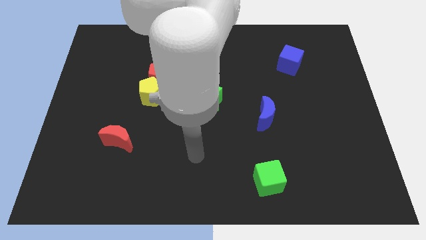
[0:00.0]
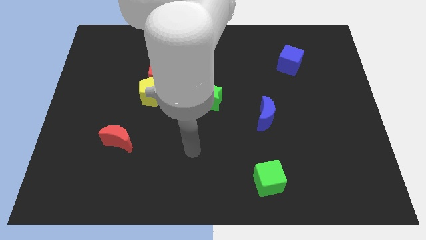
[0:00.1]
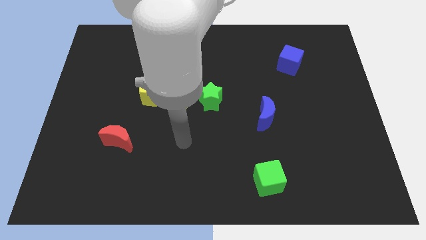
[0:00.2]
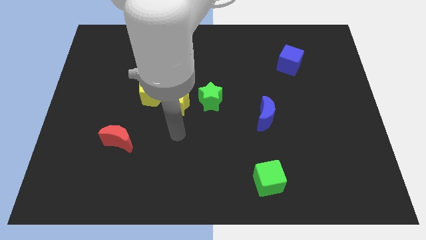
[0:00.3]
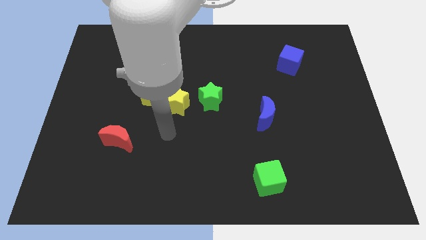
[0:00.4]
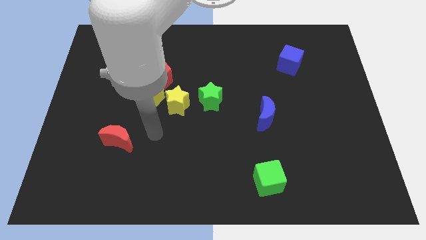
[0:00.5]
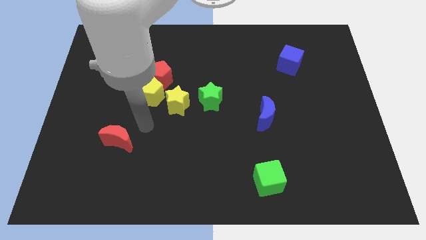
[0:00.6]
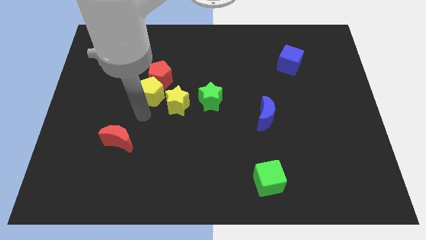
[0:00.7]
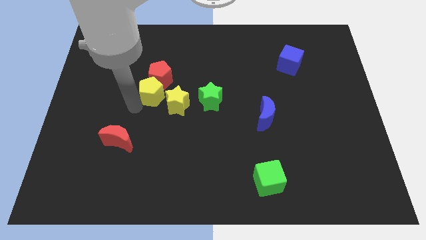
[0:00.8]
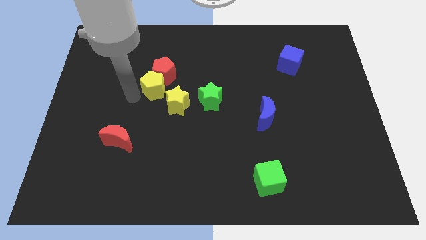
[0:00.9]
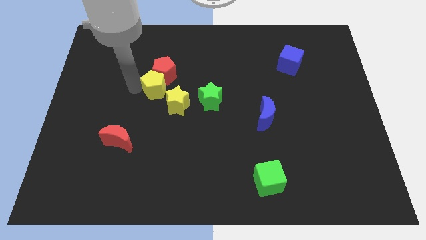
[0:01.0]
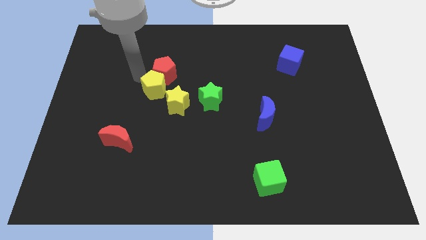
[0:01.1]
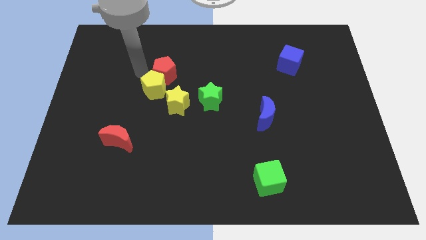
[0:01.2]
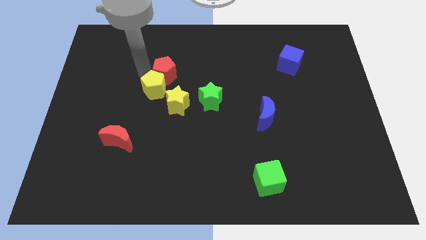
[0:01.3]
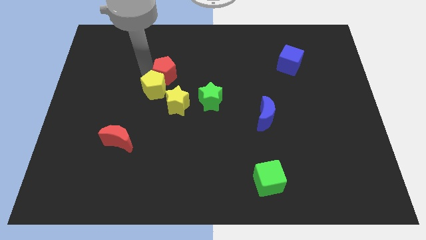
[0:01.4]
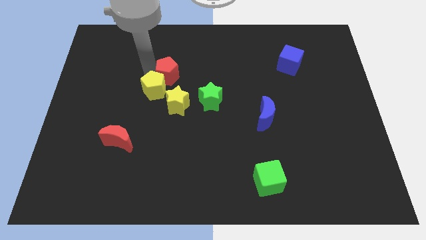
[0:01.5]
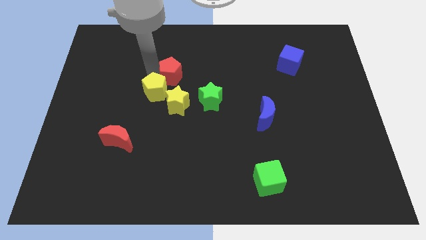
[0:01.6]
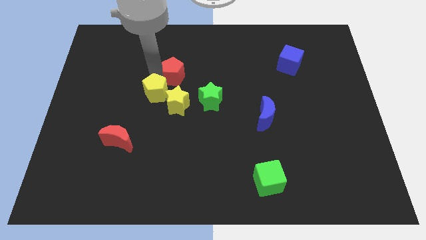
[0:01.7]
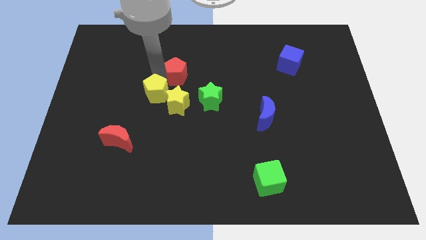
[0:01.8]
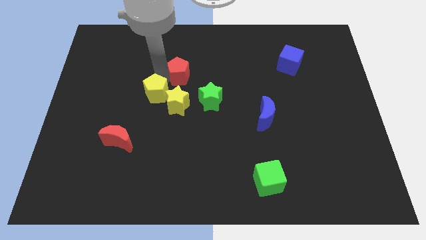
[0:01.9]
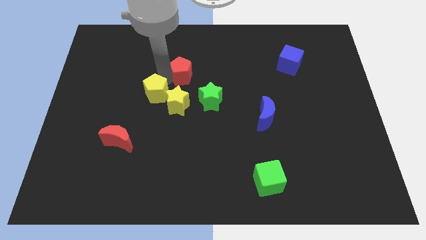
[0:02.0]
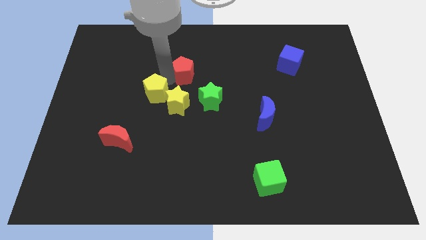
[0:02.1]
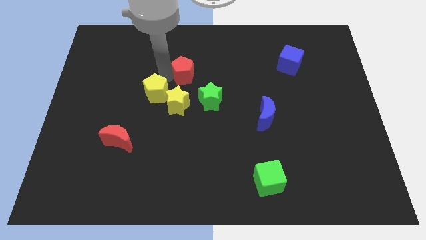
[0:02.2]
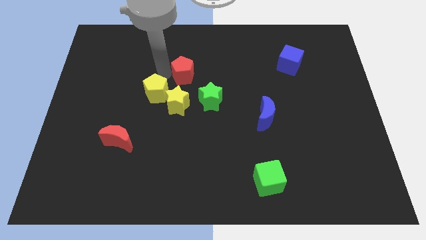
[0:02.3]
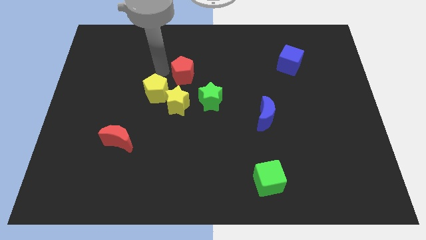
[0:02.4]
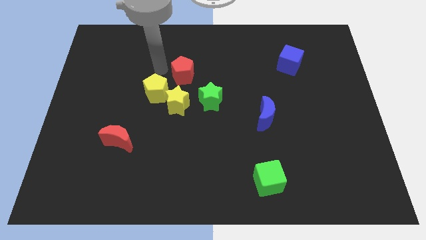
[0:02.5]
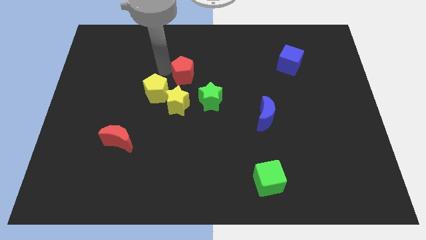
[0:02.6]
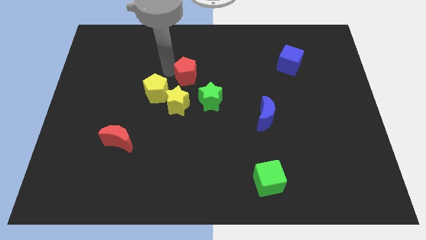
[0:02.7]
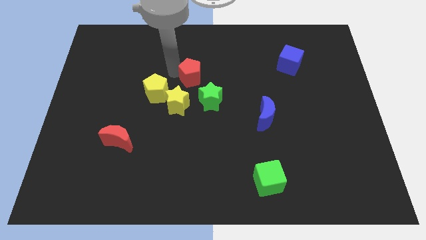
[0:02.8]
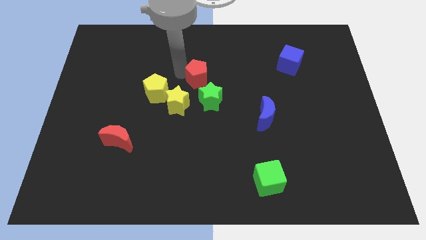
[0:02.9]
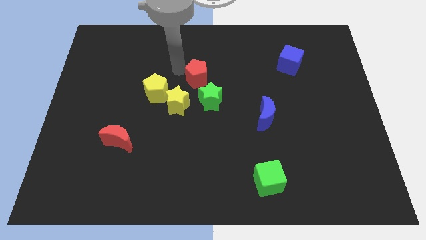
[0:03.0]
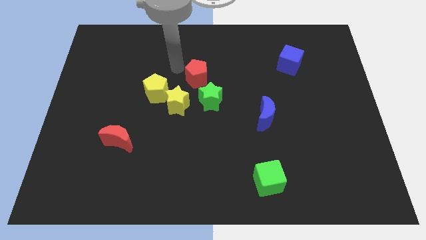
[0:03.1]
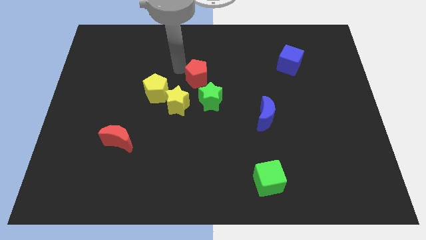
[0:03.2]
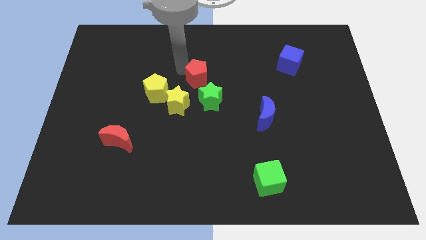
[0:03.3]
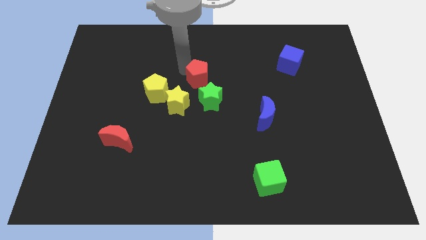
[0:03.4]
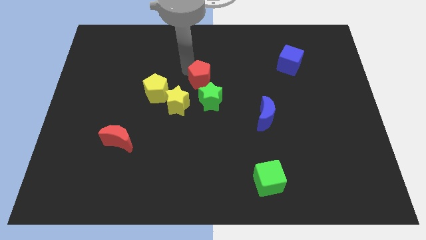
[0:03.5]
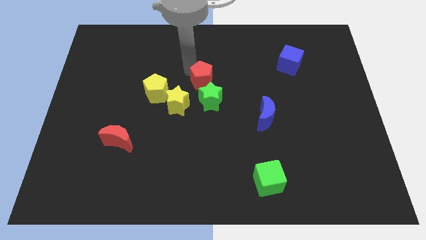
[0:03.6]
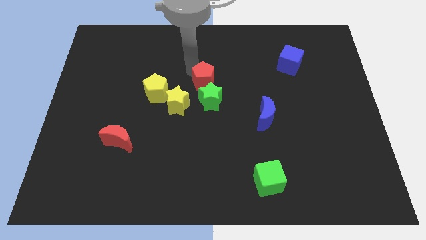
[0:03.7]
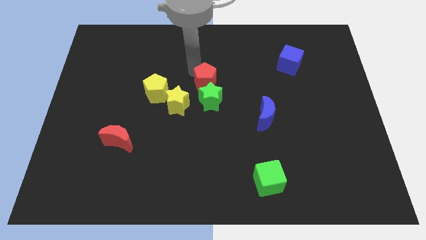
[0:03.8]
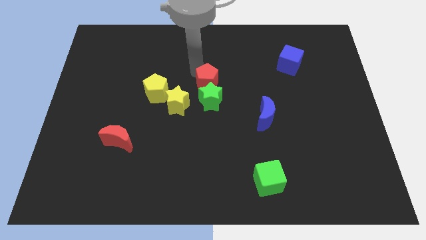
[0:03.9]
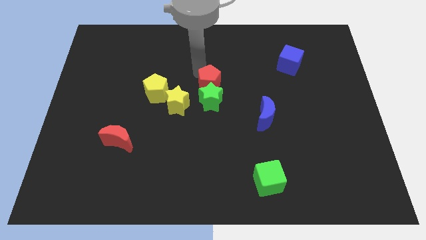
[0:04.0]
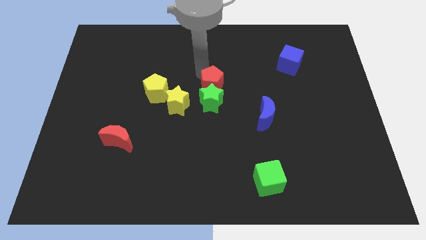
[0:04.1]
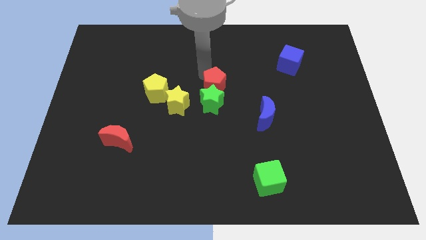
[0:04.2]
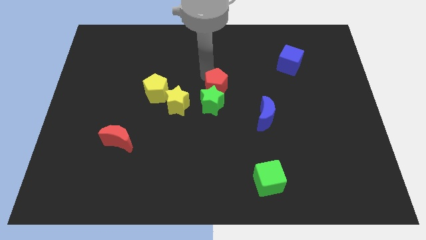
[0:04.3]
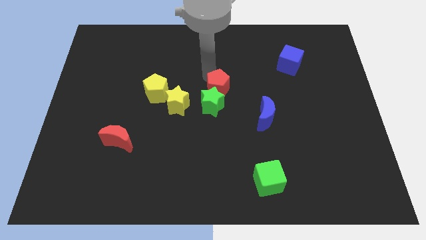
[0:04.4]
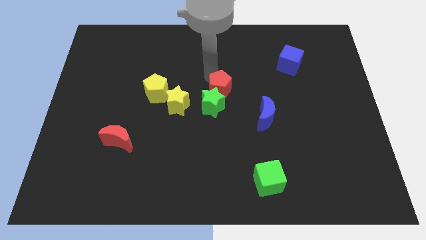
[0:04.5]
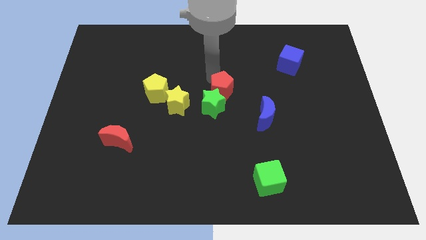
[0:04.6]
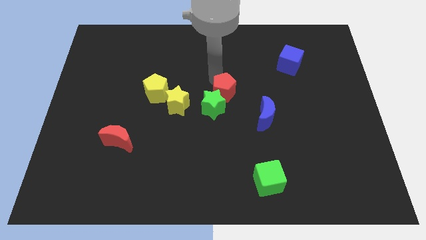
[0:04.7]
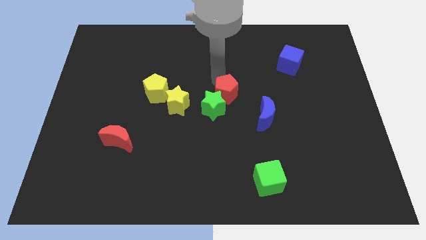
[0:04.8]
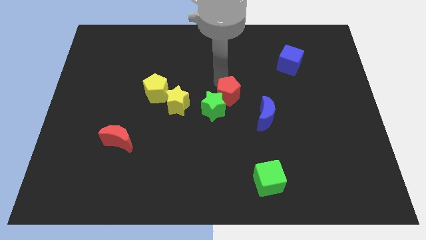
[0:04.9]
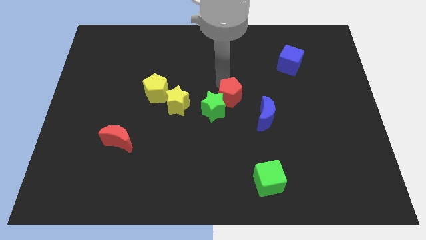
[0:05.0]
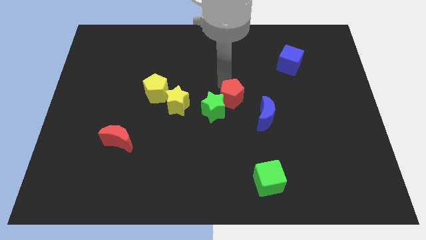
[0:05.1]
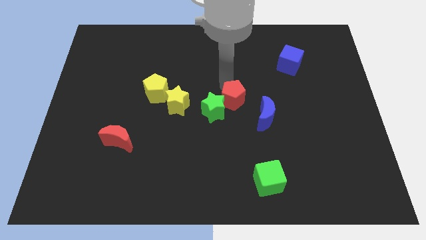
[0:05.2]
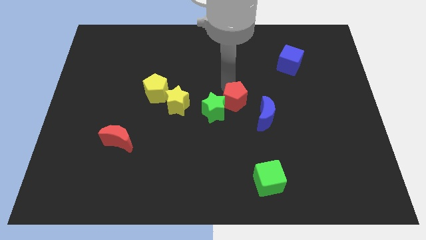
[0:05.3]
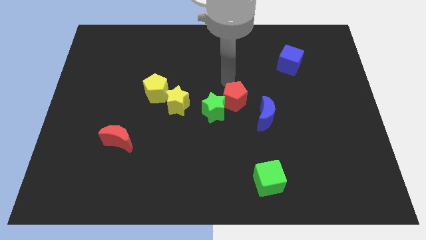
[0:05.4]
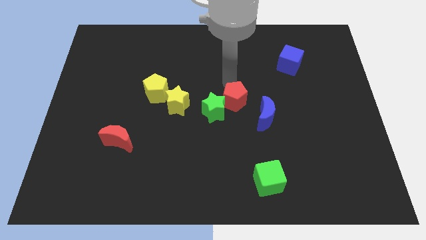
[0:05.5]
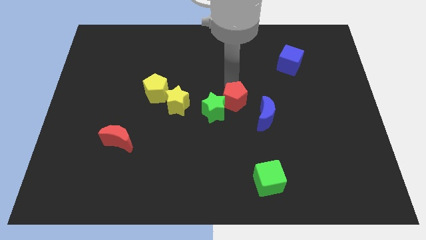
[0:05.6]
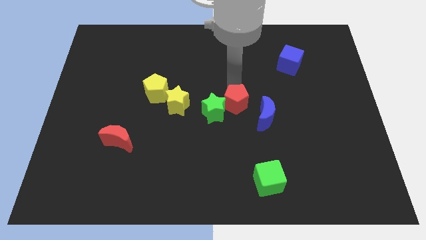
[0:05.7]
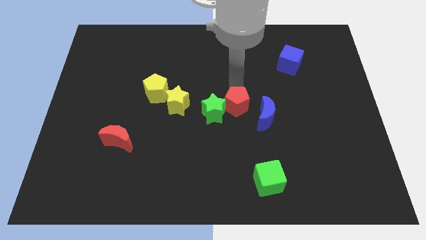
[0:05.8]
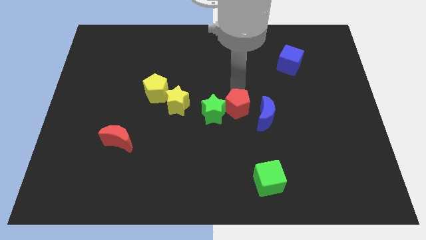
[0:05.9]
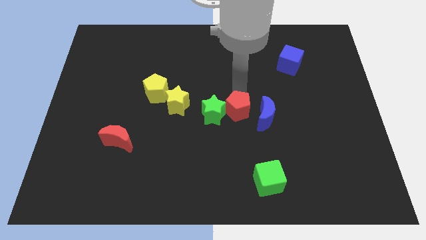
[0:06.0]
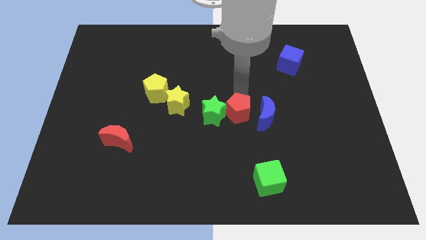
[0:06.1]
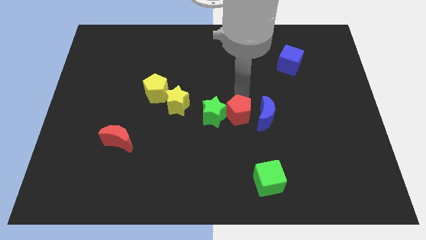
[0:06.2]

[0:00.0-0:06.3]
push the red pentagon downwards and right diagonally

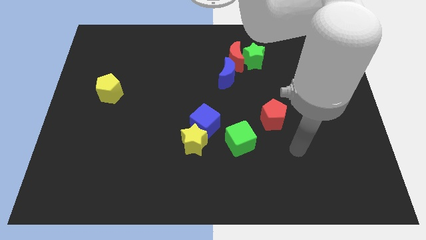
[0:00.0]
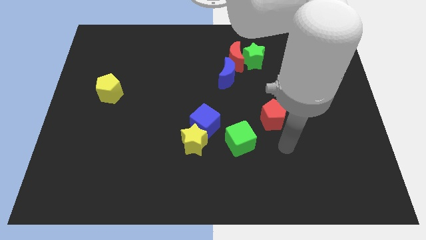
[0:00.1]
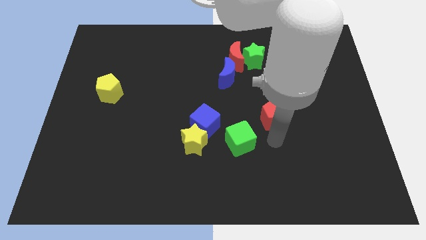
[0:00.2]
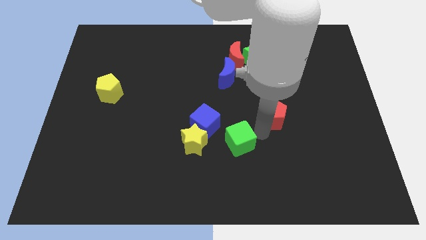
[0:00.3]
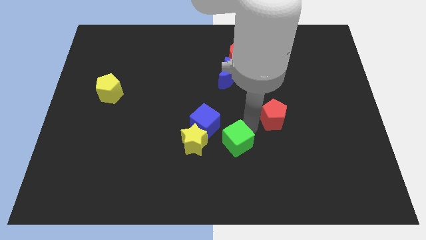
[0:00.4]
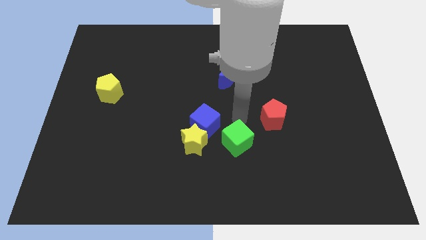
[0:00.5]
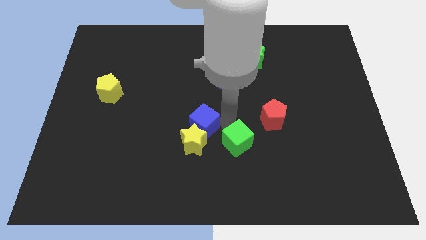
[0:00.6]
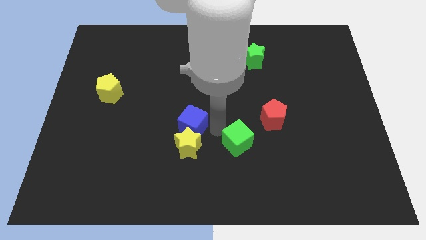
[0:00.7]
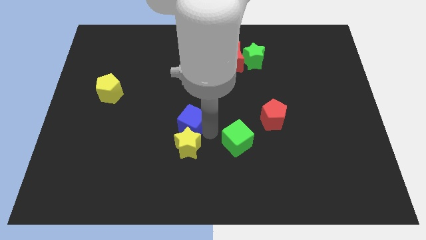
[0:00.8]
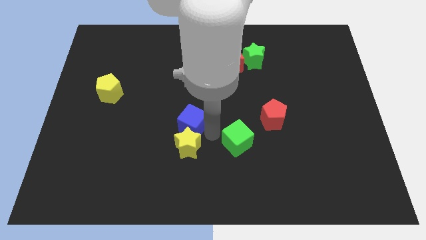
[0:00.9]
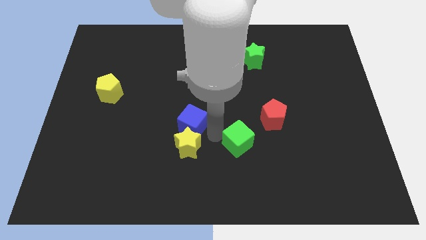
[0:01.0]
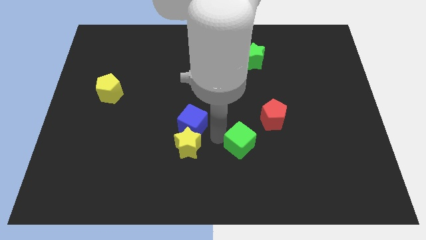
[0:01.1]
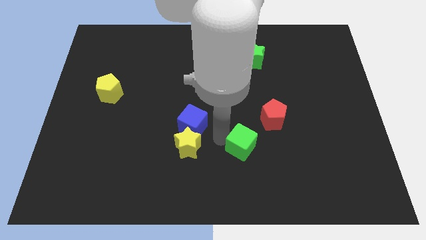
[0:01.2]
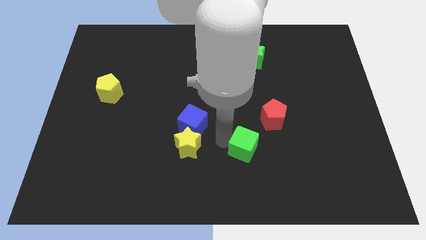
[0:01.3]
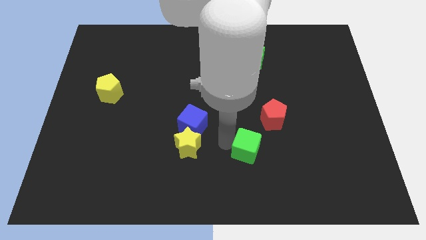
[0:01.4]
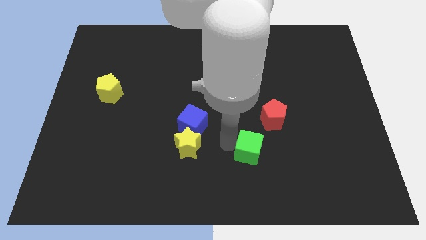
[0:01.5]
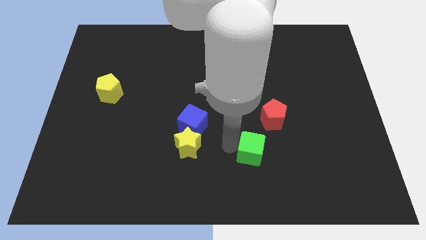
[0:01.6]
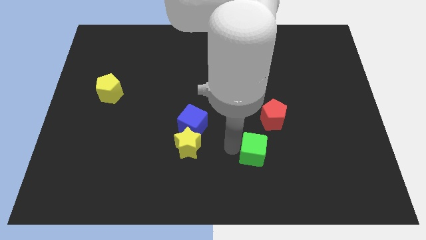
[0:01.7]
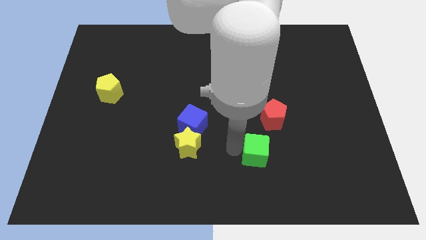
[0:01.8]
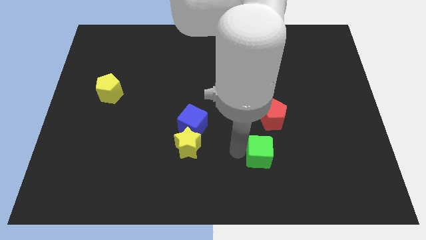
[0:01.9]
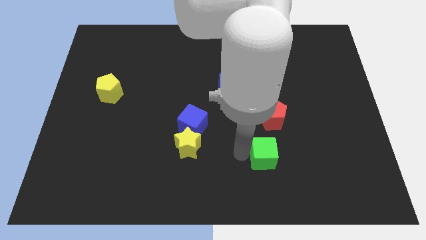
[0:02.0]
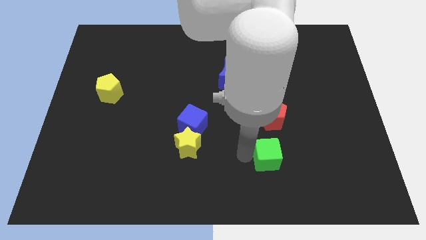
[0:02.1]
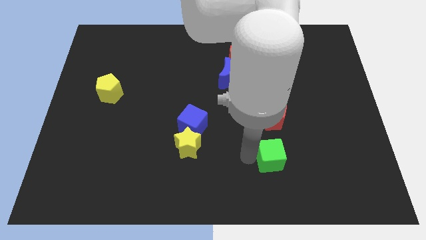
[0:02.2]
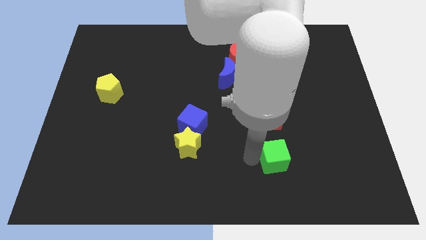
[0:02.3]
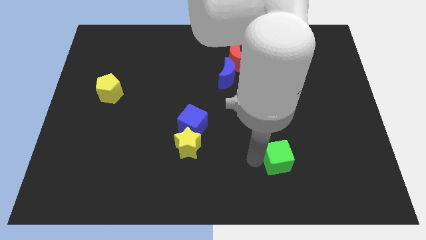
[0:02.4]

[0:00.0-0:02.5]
move the green cube to the right somewhat
